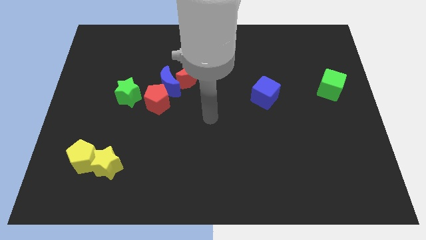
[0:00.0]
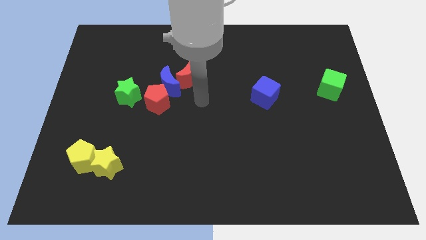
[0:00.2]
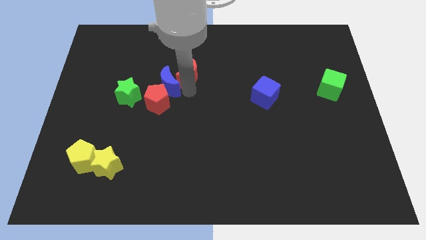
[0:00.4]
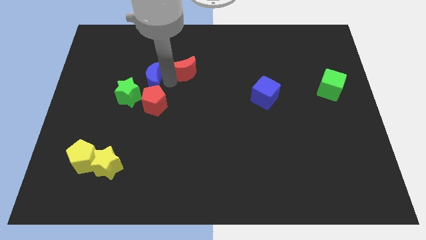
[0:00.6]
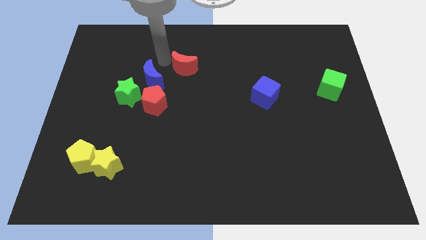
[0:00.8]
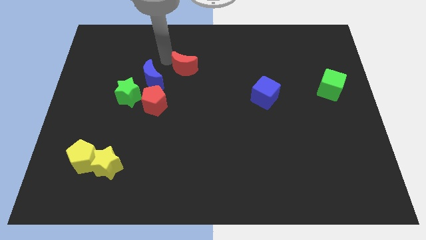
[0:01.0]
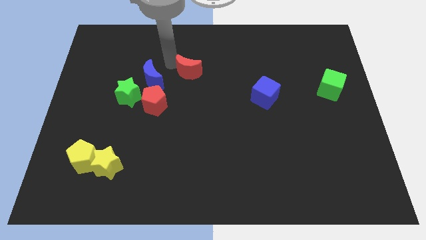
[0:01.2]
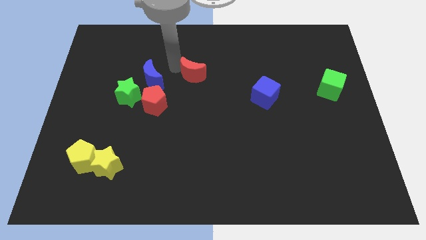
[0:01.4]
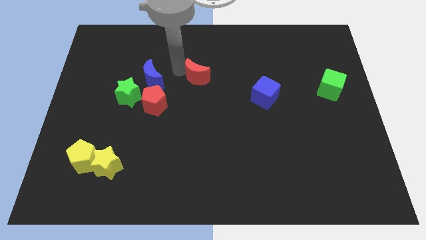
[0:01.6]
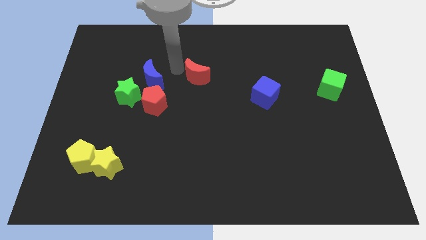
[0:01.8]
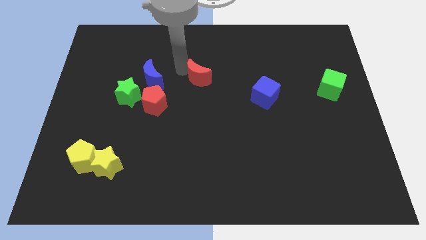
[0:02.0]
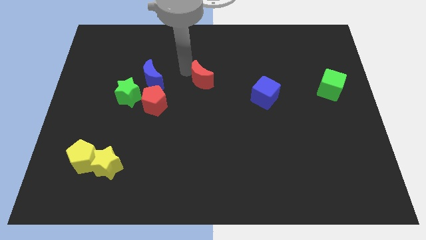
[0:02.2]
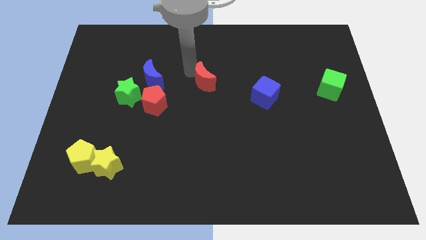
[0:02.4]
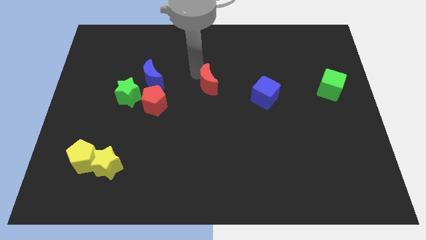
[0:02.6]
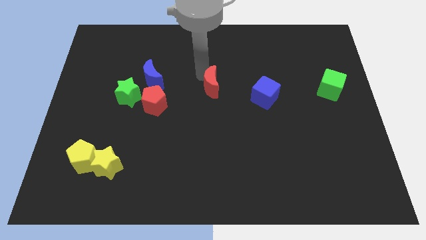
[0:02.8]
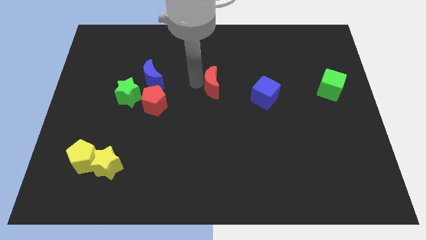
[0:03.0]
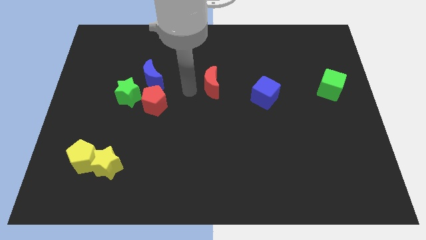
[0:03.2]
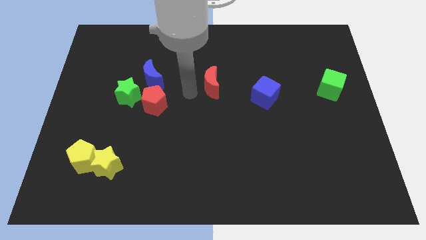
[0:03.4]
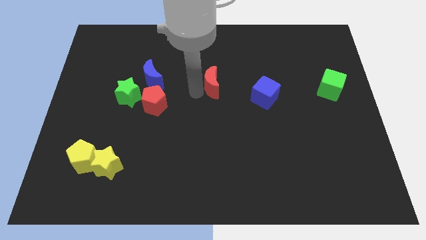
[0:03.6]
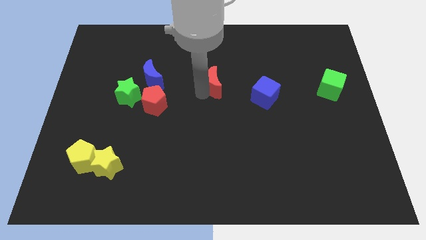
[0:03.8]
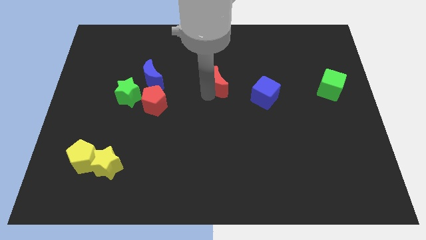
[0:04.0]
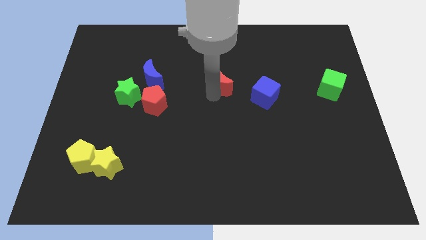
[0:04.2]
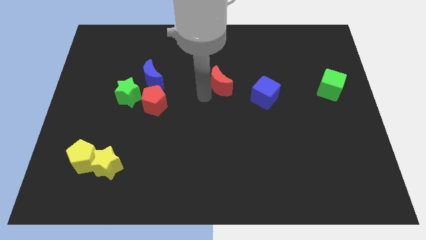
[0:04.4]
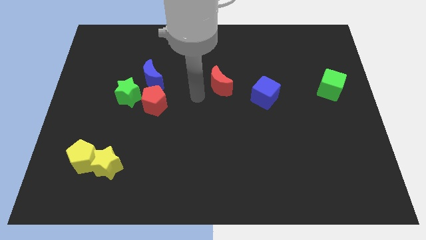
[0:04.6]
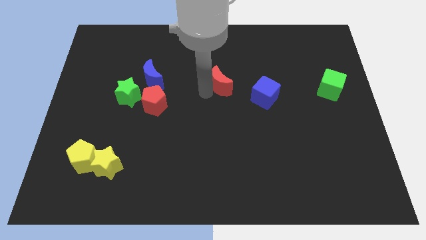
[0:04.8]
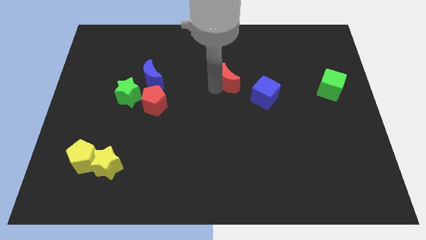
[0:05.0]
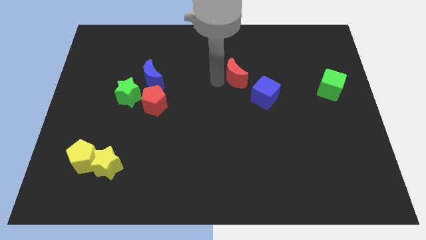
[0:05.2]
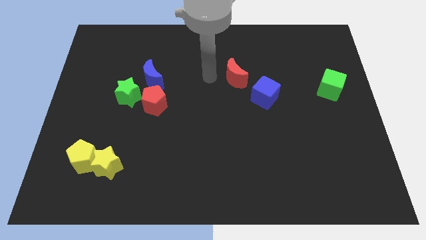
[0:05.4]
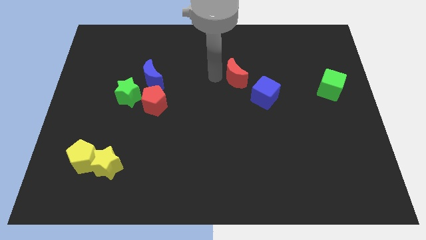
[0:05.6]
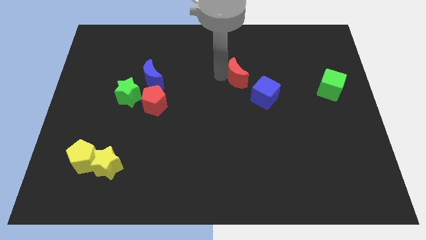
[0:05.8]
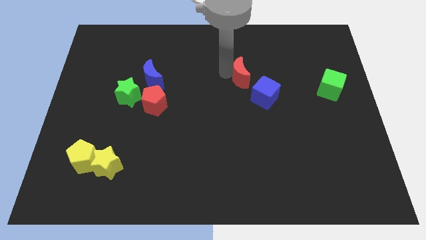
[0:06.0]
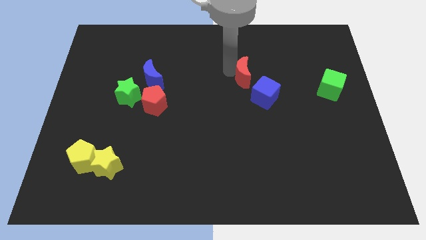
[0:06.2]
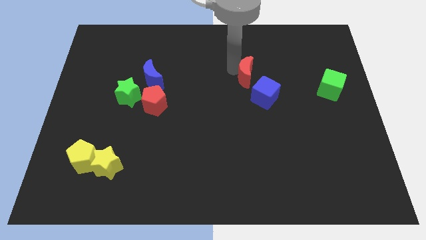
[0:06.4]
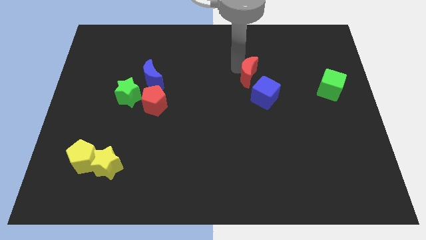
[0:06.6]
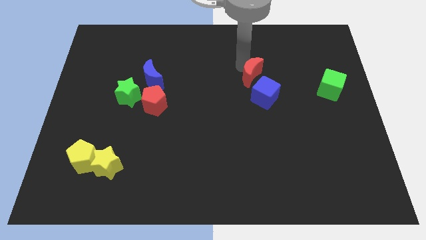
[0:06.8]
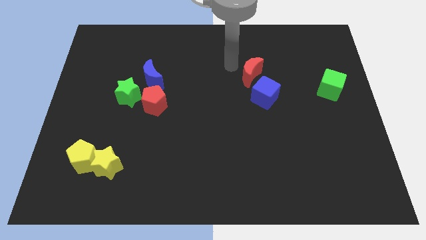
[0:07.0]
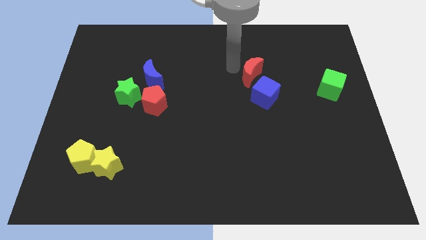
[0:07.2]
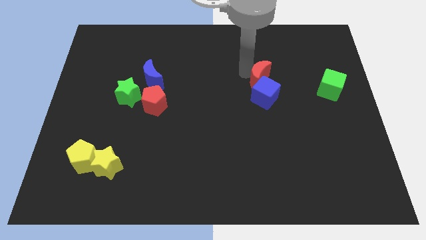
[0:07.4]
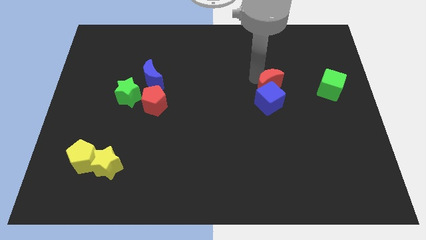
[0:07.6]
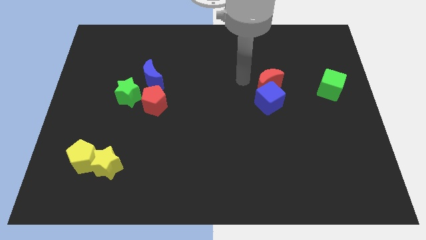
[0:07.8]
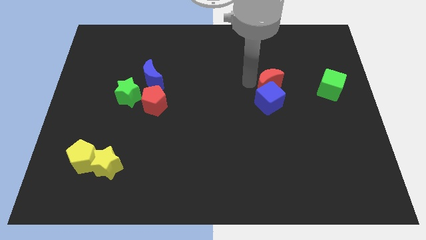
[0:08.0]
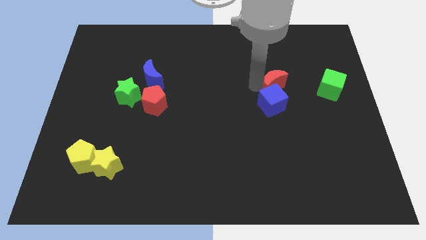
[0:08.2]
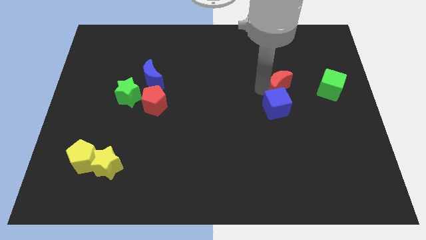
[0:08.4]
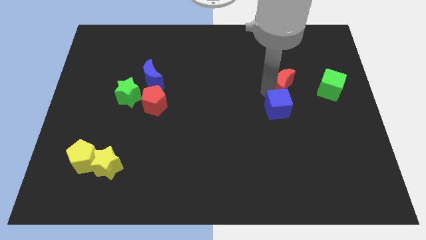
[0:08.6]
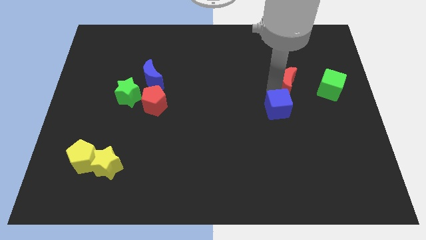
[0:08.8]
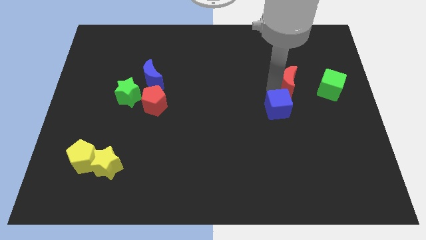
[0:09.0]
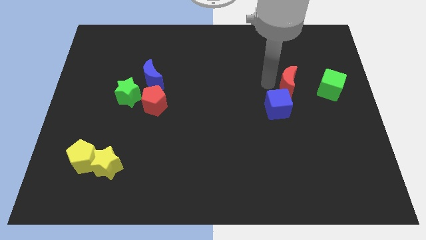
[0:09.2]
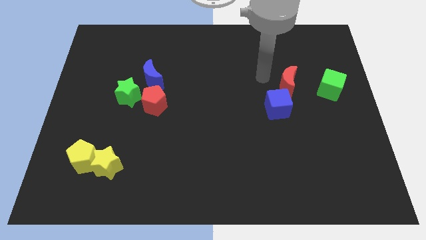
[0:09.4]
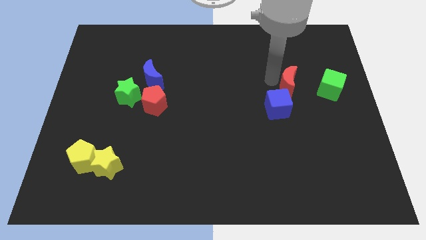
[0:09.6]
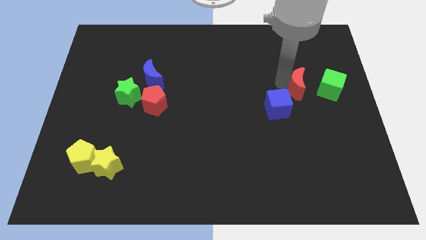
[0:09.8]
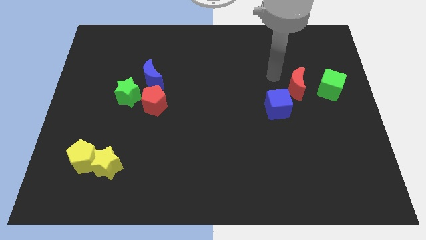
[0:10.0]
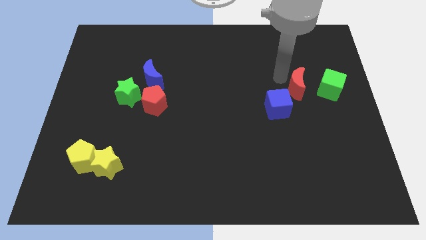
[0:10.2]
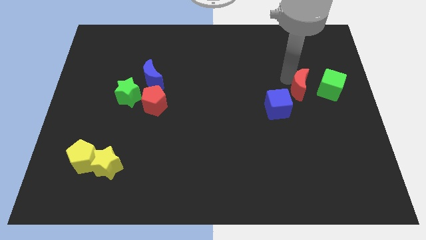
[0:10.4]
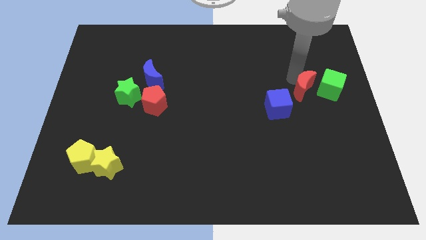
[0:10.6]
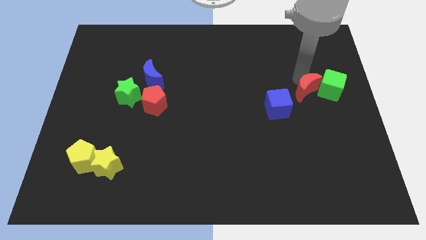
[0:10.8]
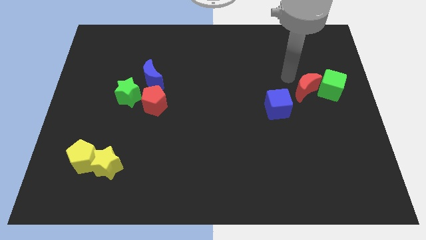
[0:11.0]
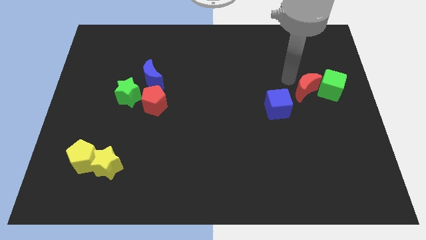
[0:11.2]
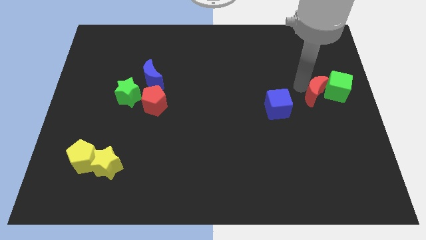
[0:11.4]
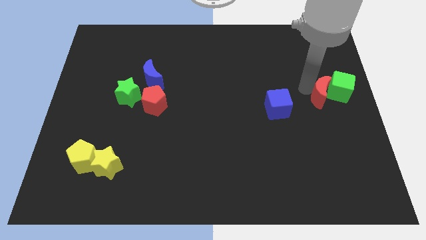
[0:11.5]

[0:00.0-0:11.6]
push the red moon to the right side of the board

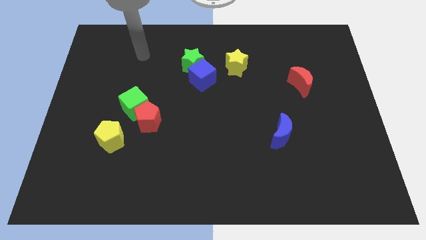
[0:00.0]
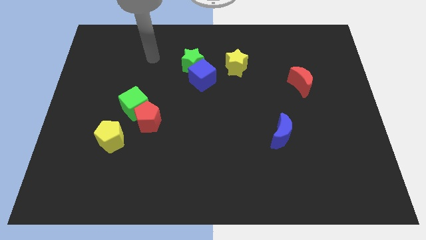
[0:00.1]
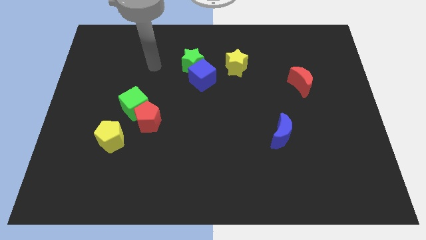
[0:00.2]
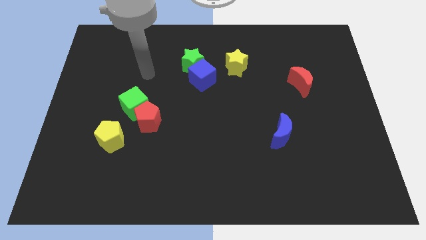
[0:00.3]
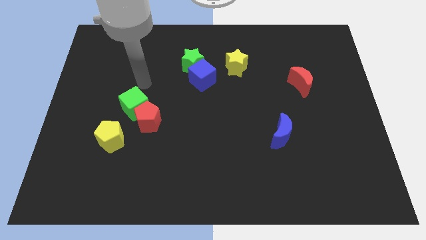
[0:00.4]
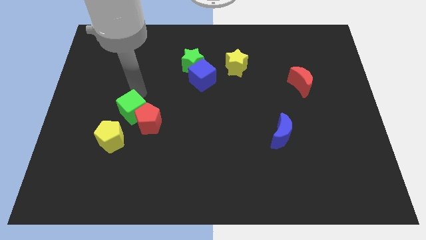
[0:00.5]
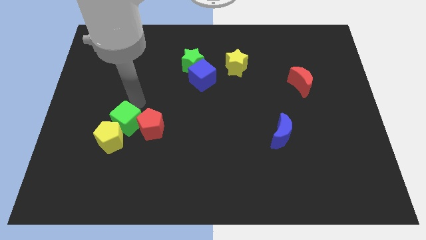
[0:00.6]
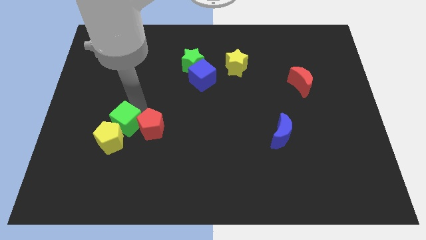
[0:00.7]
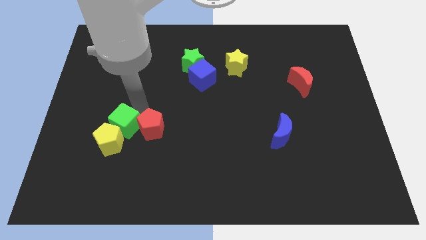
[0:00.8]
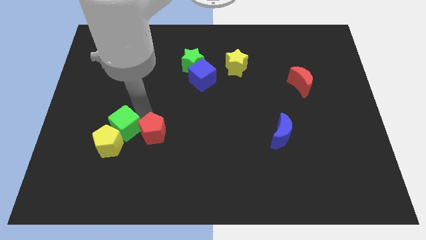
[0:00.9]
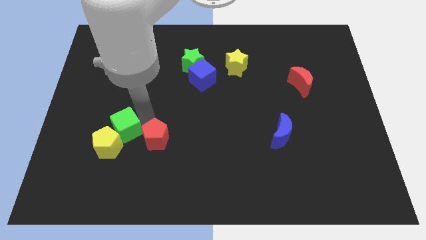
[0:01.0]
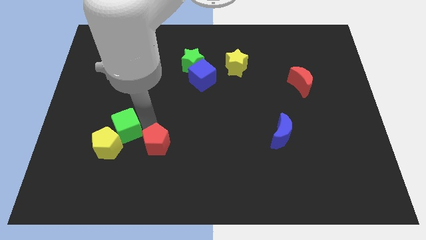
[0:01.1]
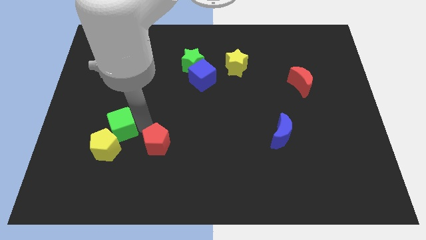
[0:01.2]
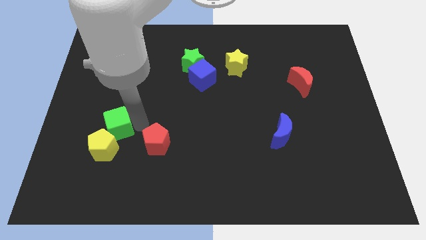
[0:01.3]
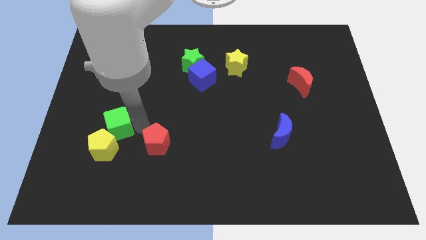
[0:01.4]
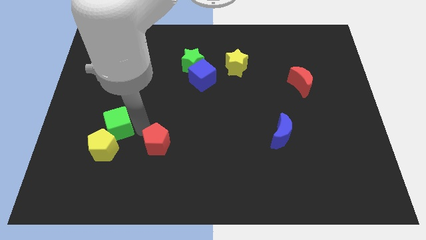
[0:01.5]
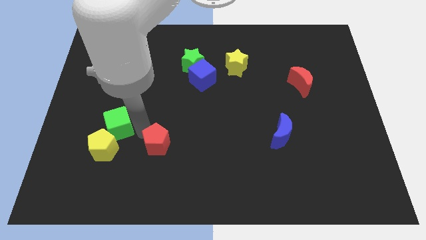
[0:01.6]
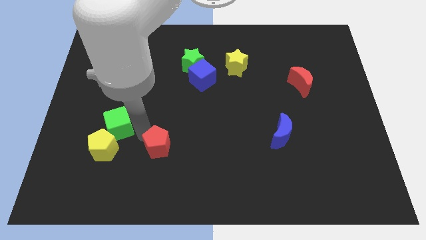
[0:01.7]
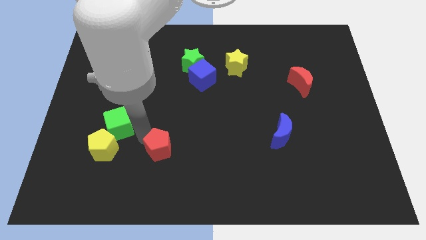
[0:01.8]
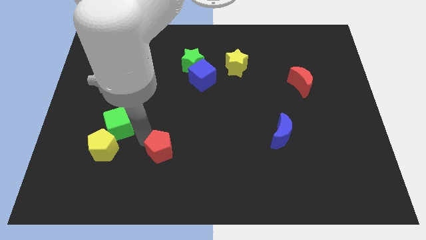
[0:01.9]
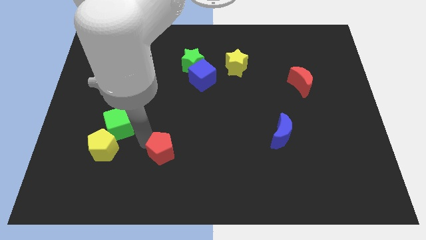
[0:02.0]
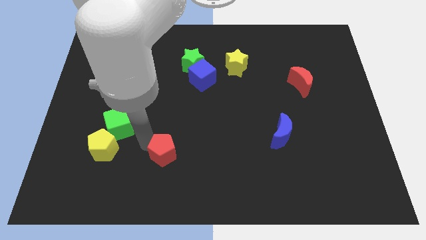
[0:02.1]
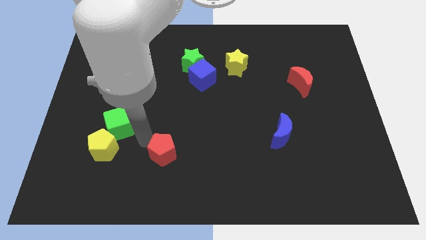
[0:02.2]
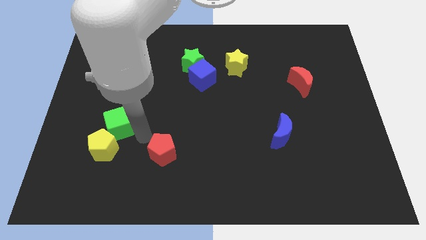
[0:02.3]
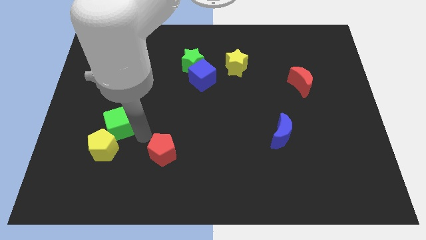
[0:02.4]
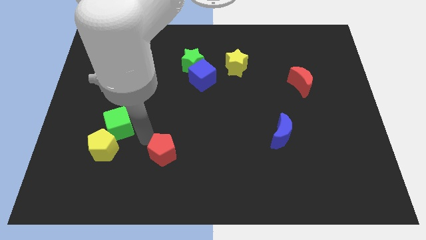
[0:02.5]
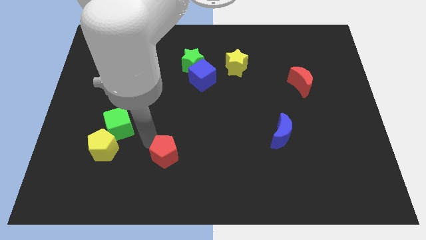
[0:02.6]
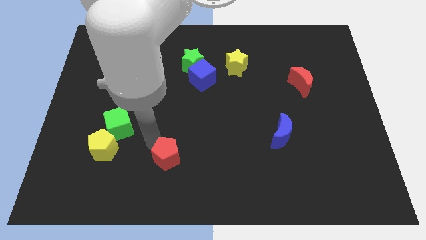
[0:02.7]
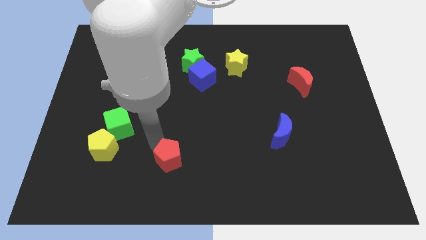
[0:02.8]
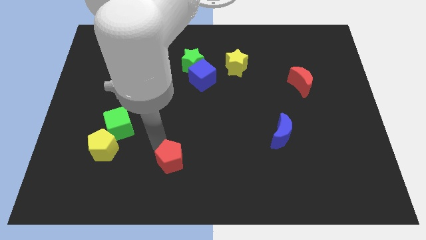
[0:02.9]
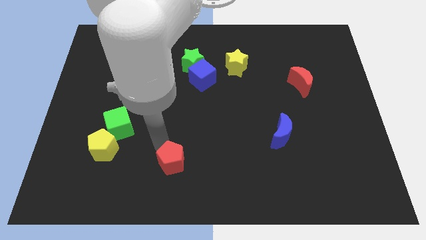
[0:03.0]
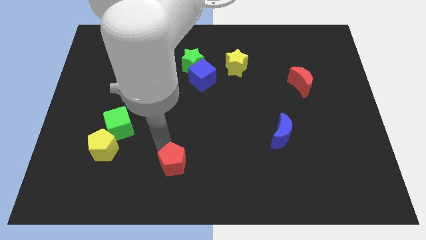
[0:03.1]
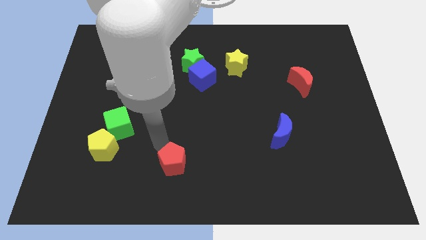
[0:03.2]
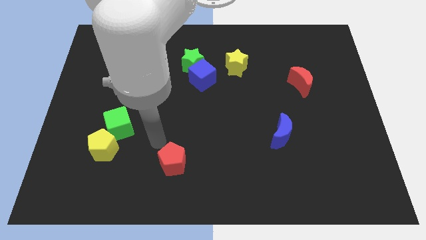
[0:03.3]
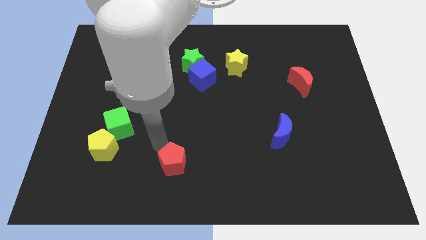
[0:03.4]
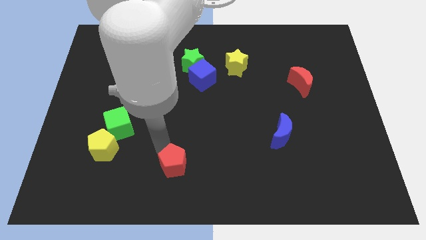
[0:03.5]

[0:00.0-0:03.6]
push the red pentagon to the bottom
